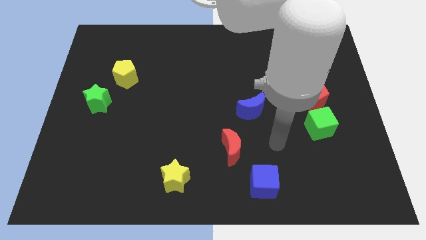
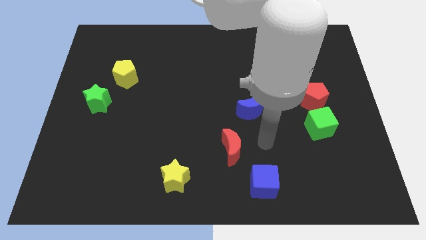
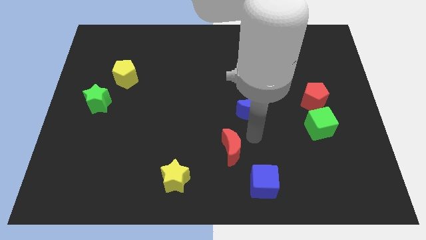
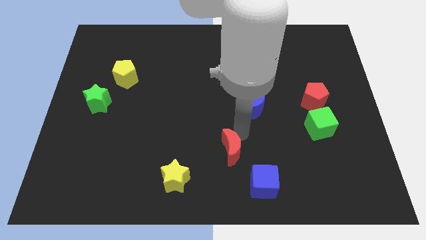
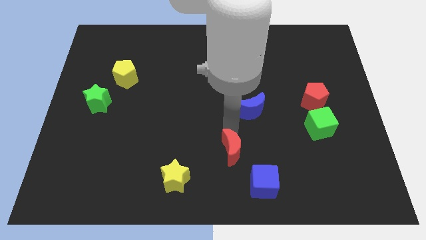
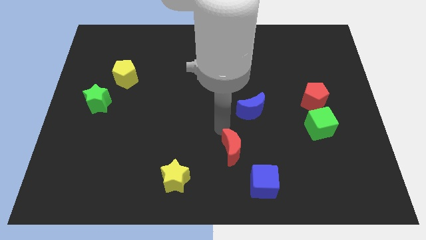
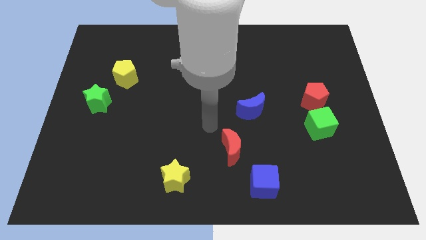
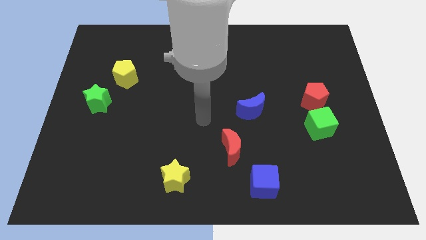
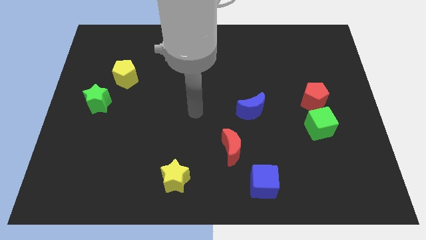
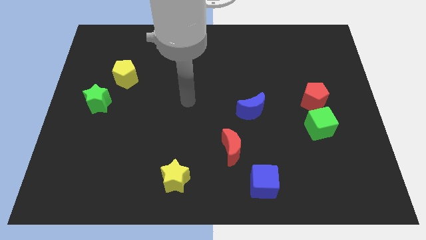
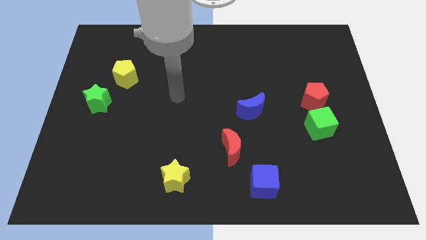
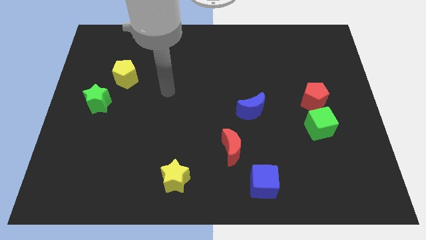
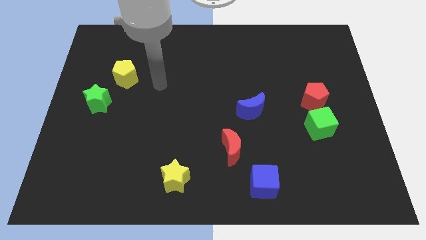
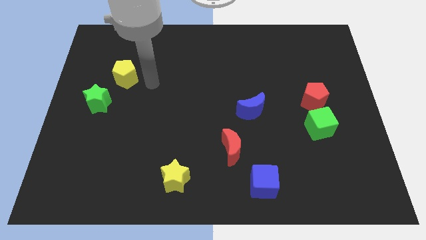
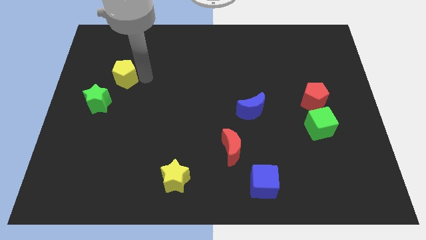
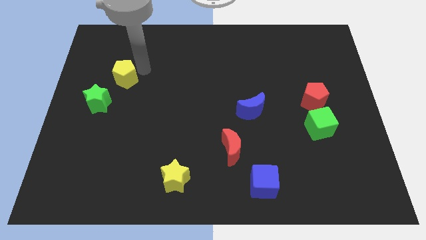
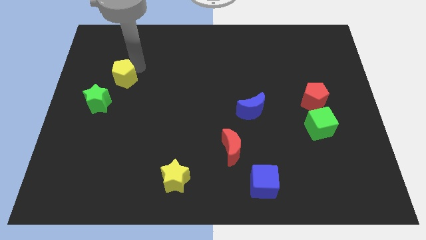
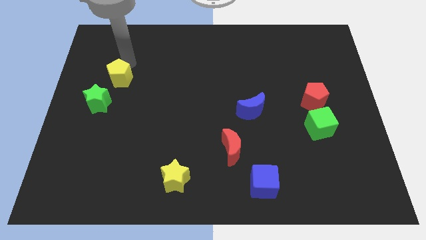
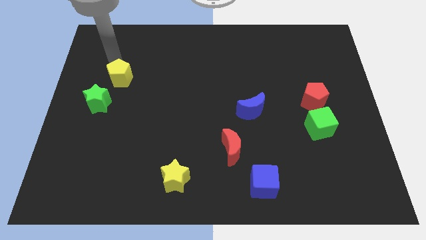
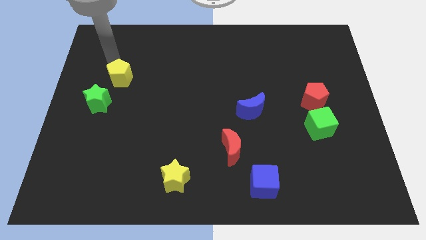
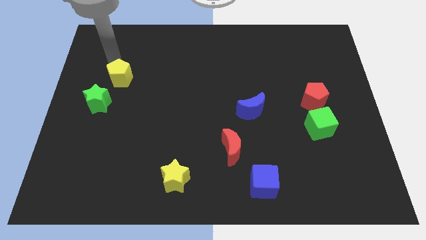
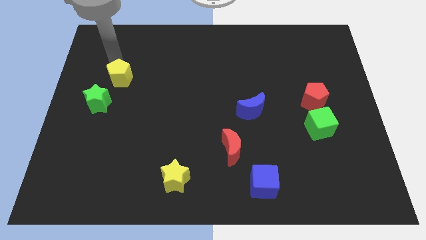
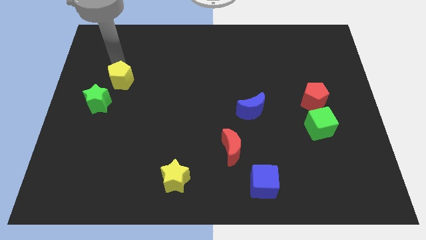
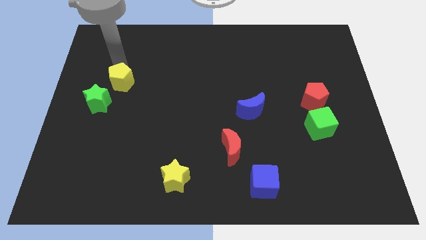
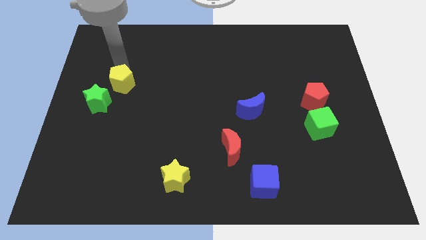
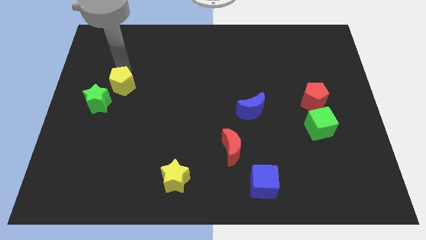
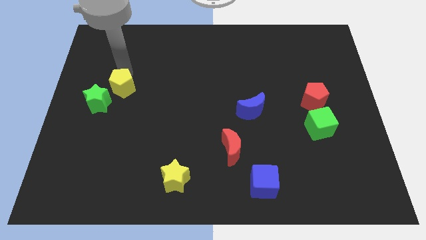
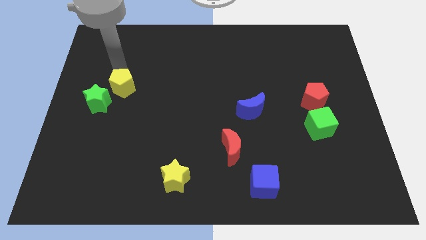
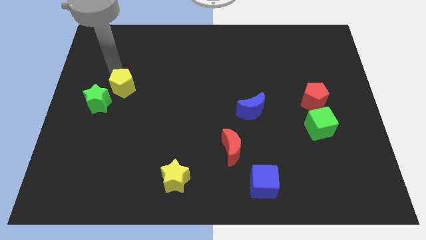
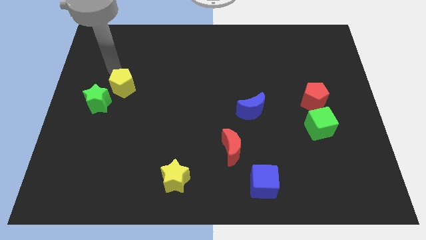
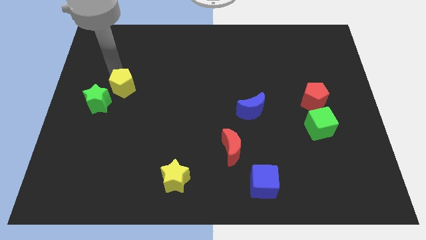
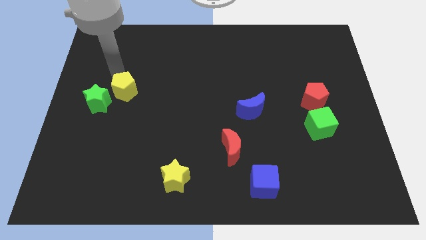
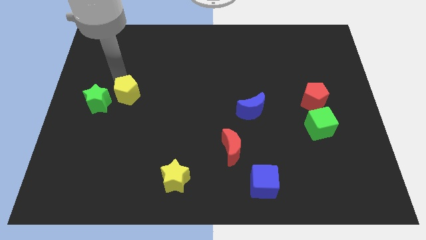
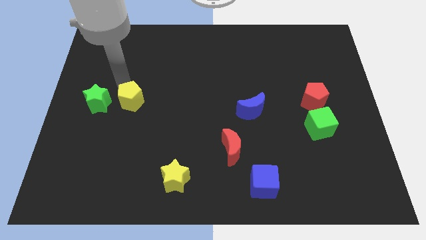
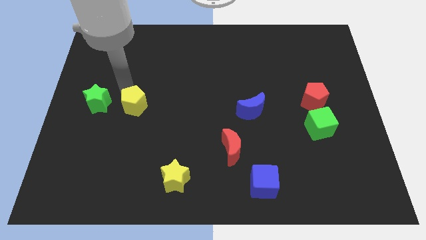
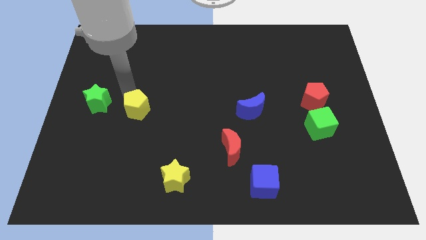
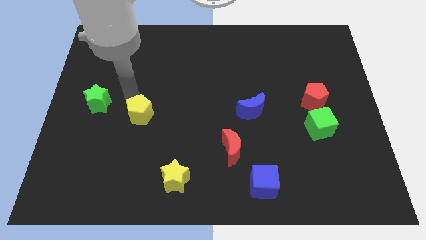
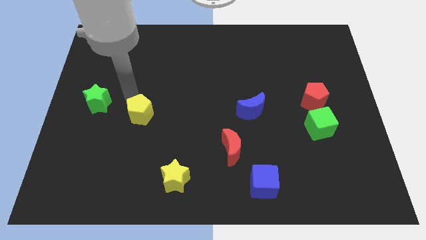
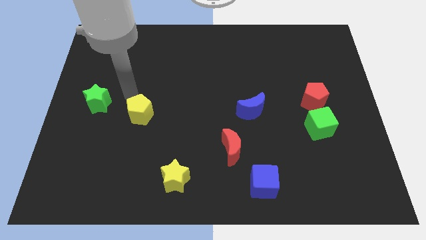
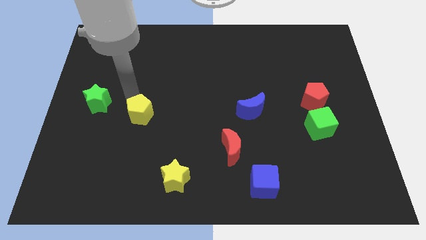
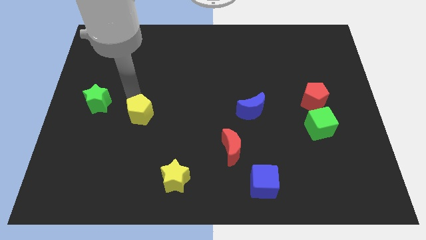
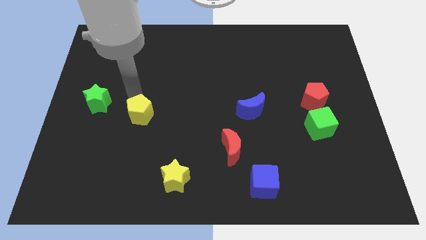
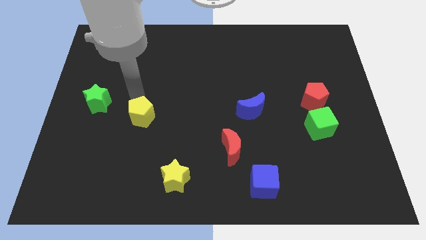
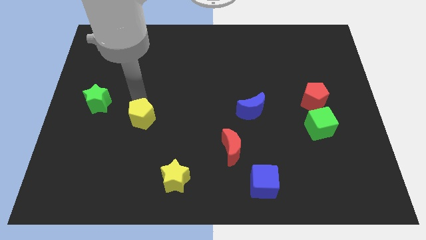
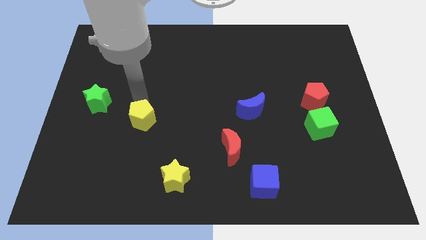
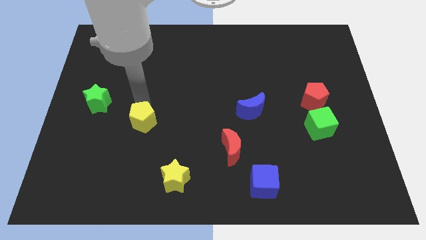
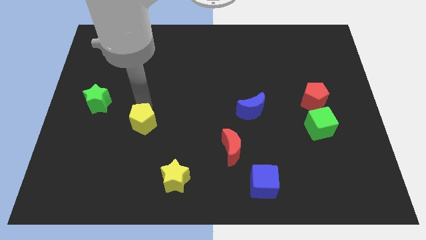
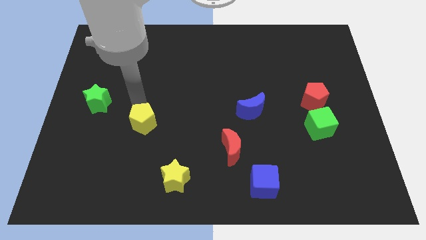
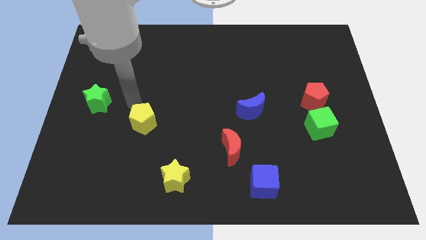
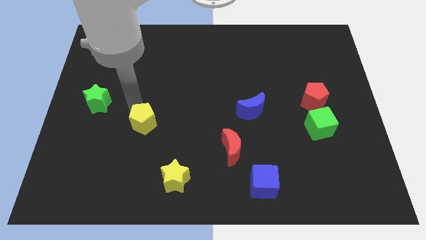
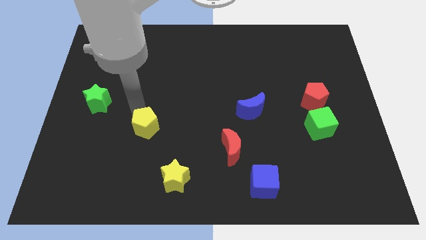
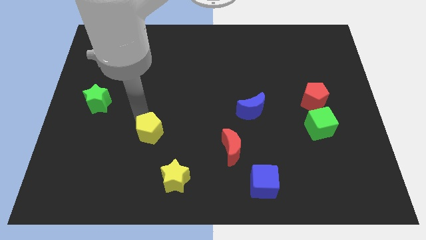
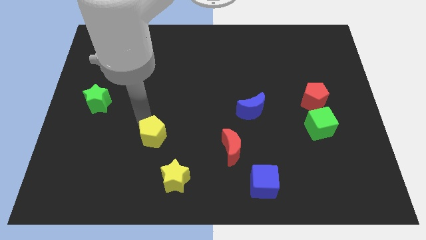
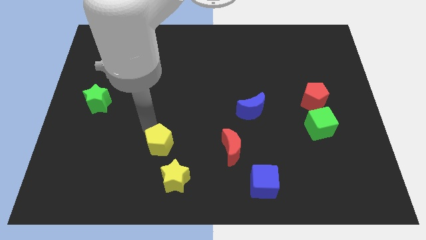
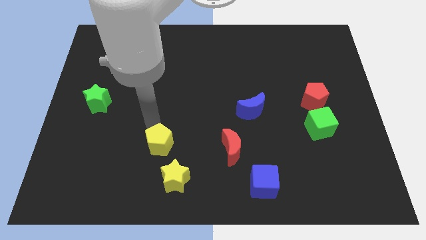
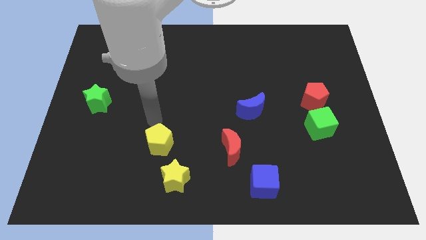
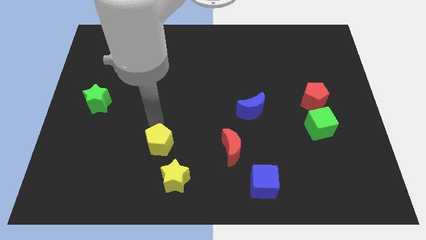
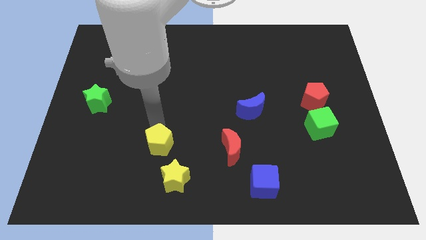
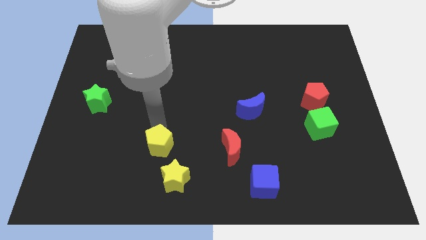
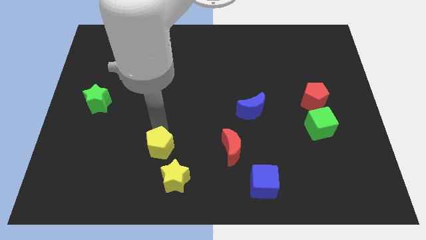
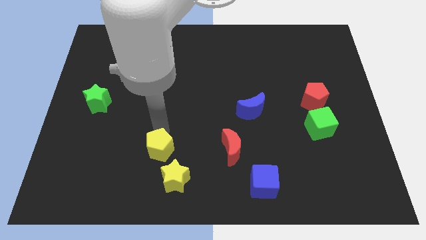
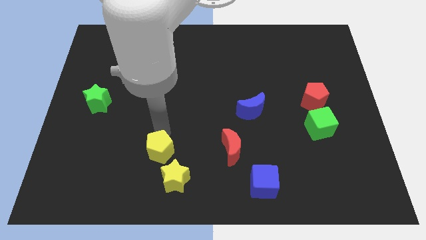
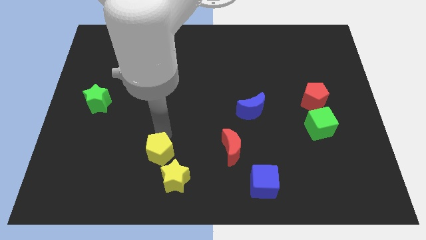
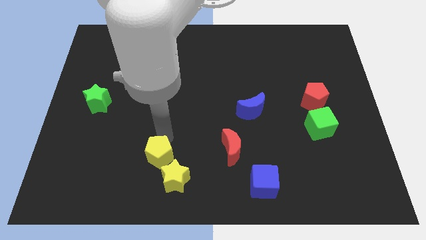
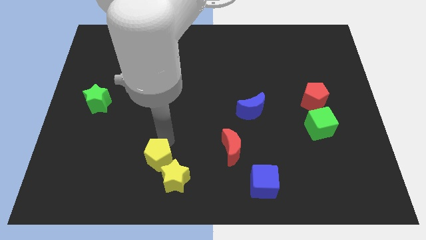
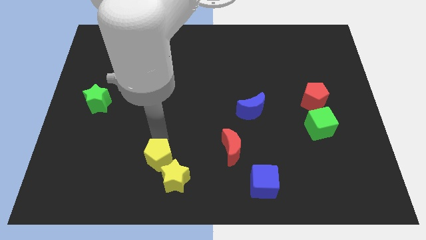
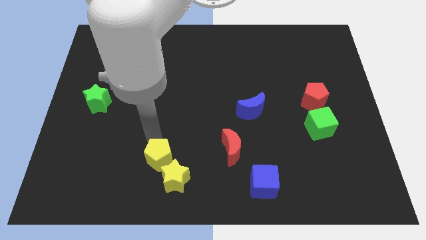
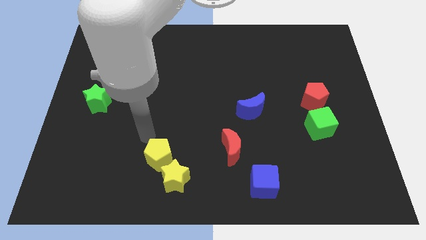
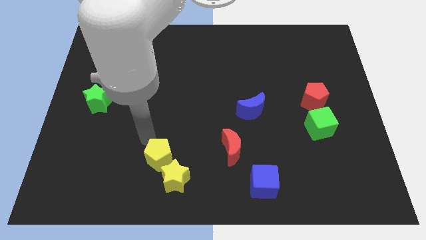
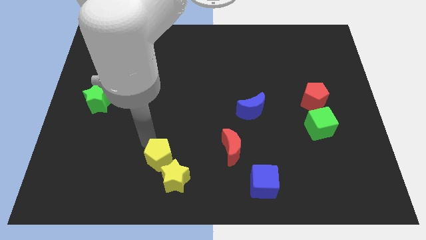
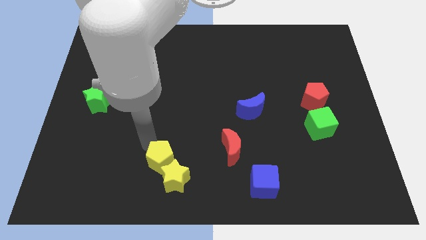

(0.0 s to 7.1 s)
move the yellow pentagon next to the yellow star
